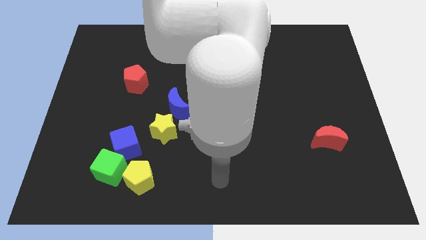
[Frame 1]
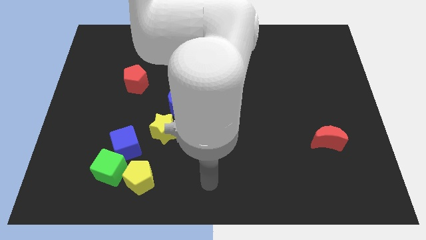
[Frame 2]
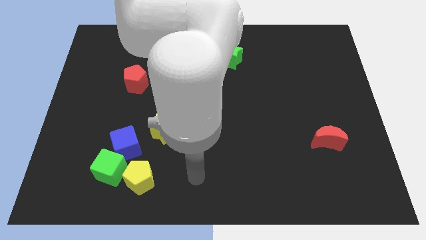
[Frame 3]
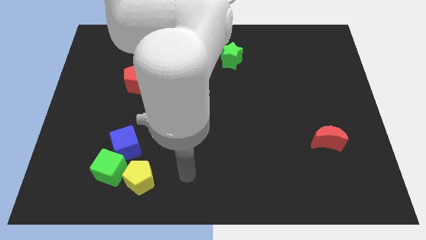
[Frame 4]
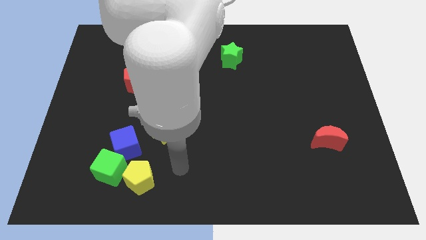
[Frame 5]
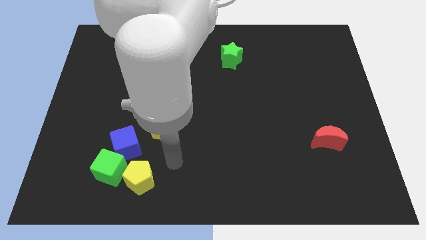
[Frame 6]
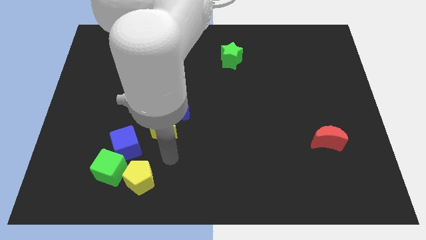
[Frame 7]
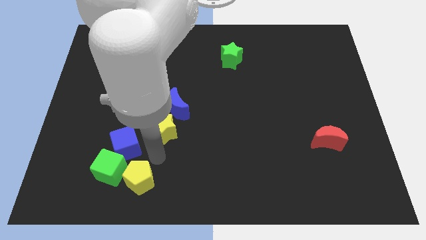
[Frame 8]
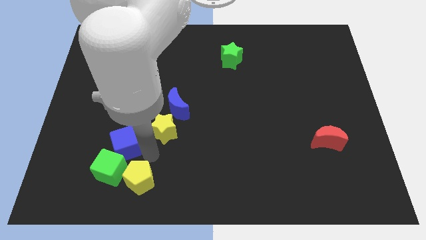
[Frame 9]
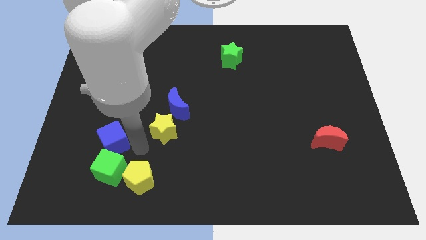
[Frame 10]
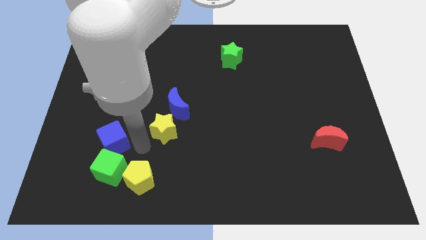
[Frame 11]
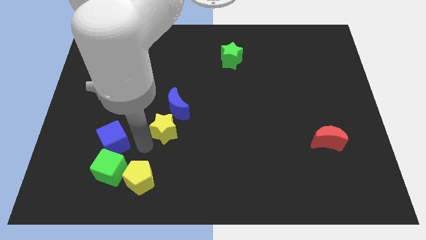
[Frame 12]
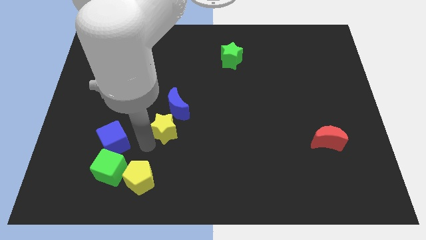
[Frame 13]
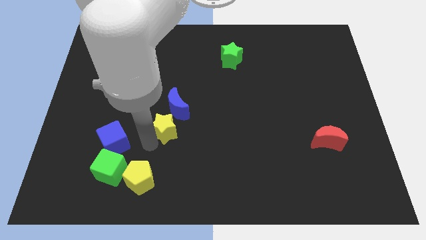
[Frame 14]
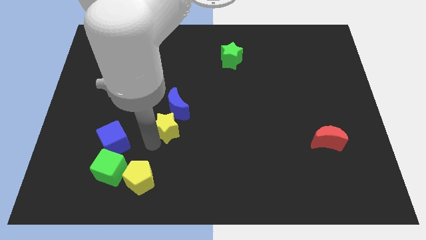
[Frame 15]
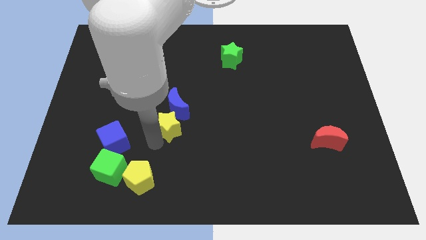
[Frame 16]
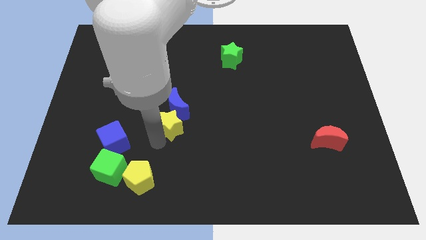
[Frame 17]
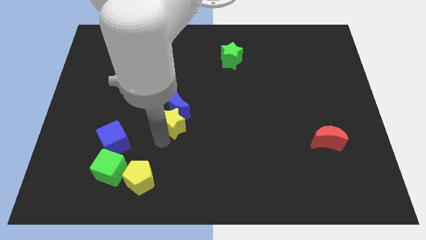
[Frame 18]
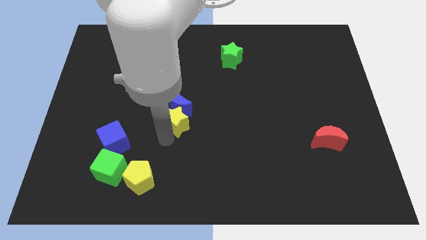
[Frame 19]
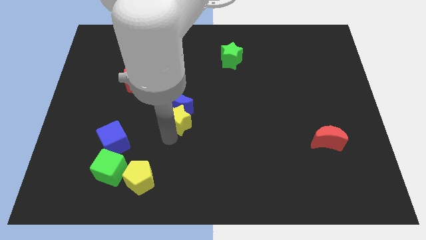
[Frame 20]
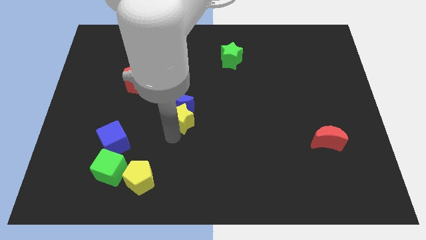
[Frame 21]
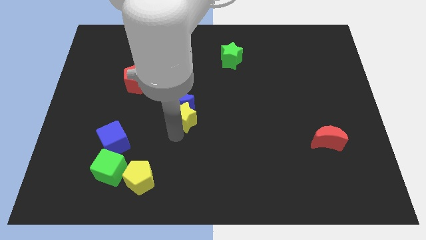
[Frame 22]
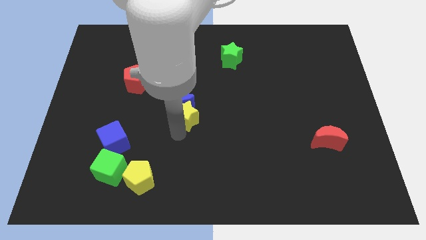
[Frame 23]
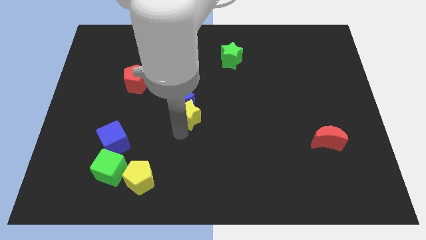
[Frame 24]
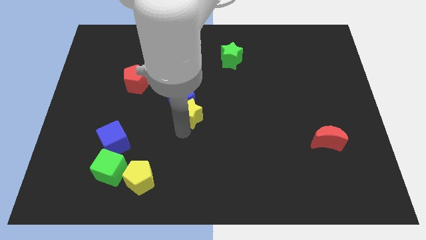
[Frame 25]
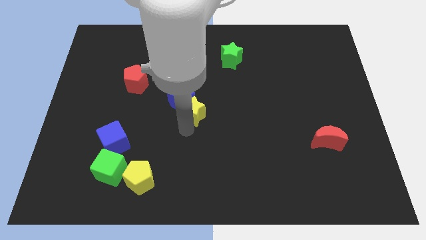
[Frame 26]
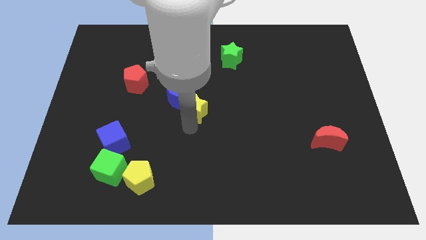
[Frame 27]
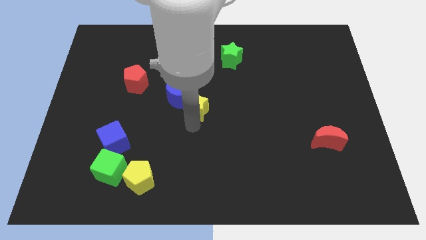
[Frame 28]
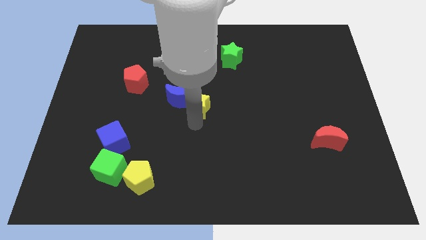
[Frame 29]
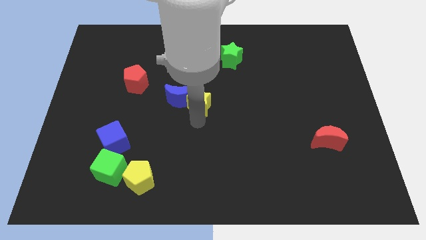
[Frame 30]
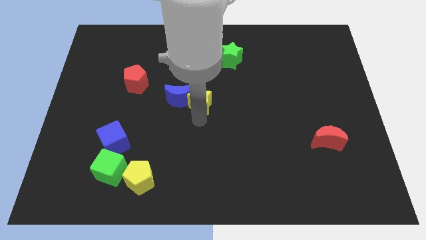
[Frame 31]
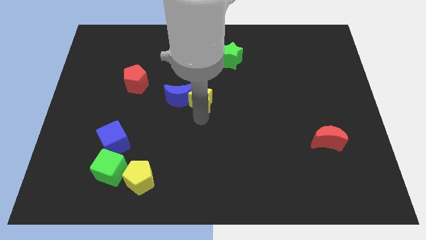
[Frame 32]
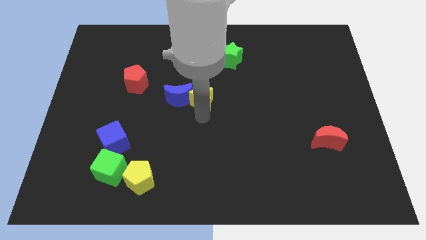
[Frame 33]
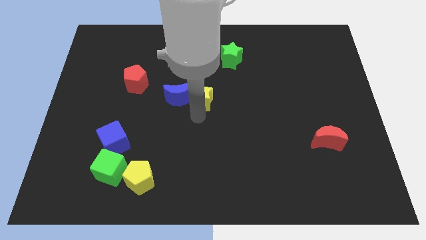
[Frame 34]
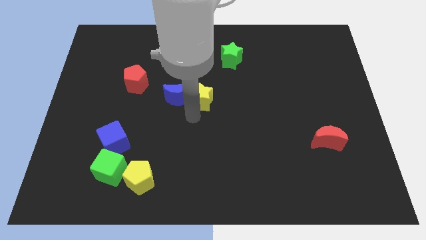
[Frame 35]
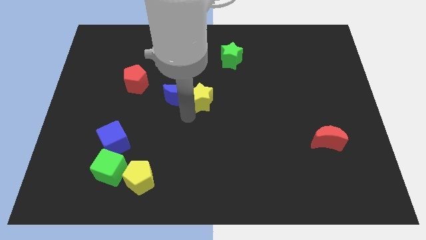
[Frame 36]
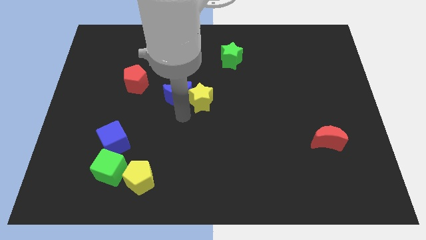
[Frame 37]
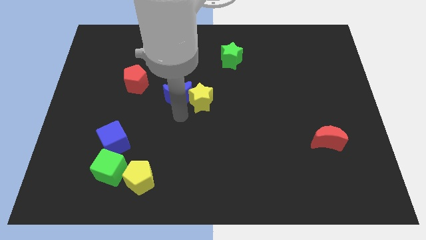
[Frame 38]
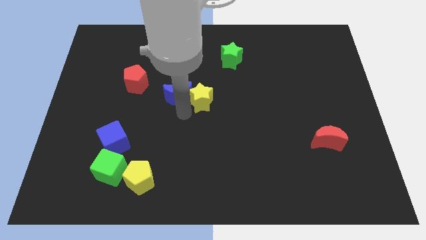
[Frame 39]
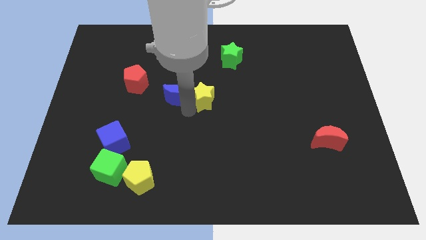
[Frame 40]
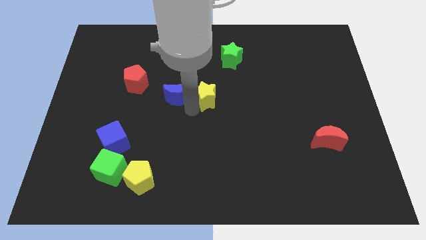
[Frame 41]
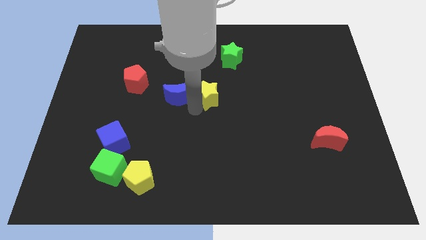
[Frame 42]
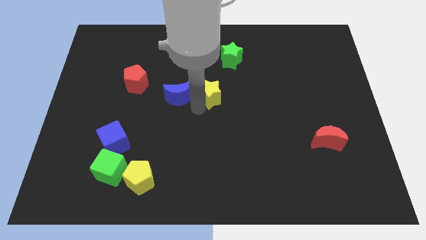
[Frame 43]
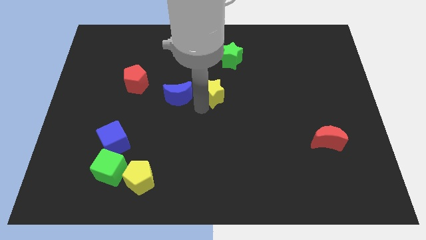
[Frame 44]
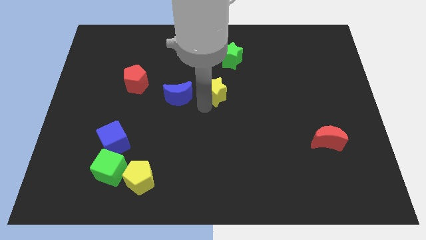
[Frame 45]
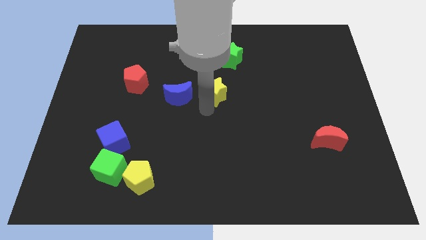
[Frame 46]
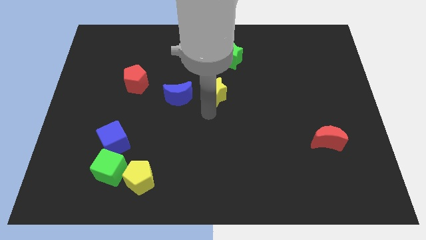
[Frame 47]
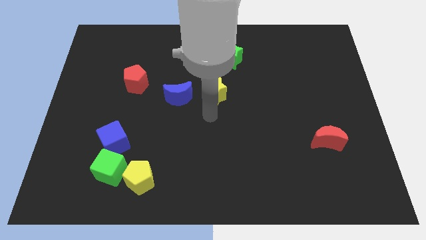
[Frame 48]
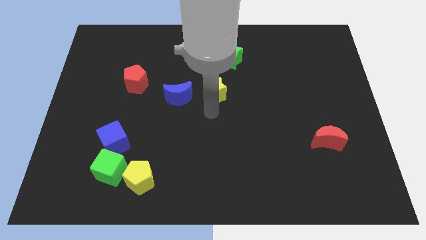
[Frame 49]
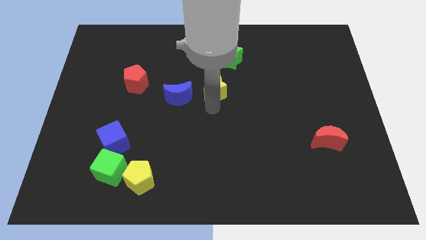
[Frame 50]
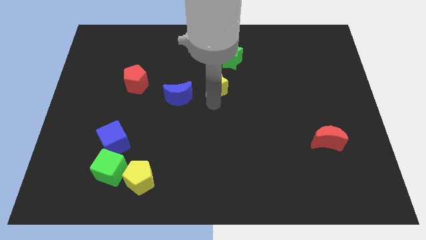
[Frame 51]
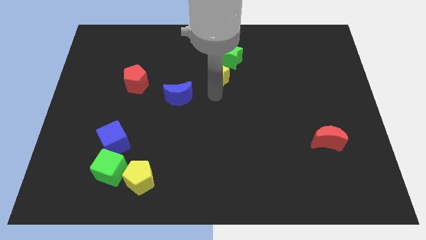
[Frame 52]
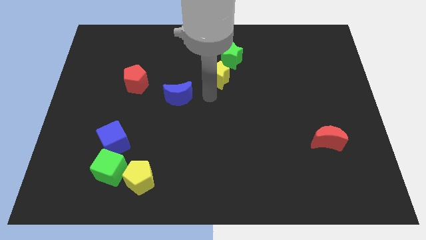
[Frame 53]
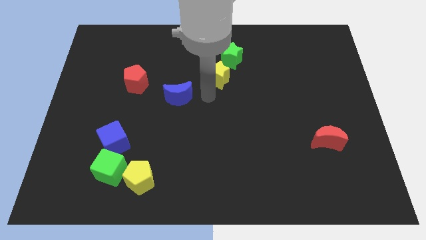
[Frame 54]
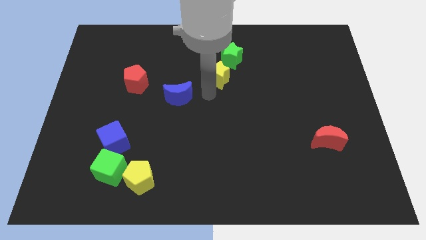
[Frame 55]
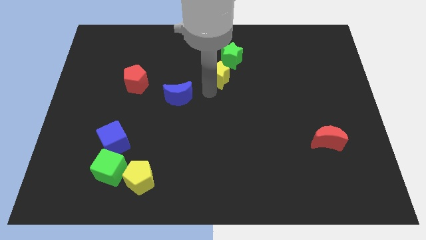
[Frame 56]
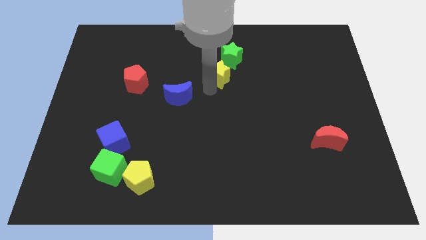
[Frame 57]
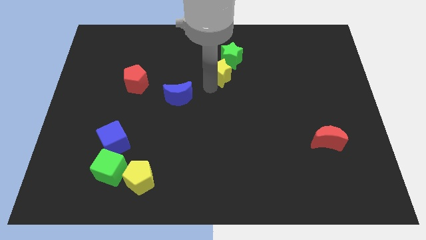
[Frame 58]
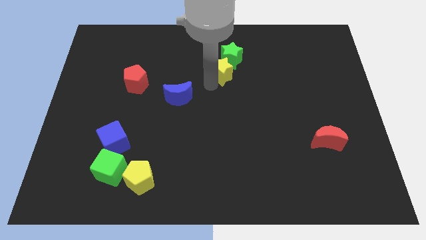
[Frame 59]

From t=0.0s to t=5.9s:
move the yellow star next to the green star

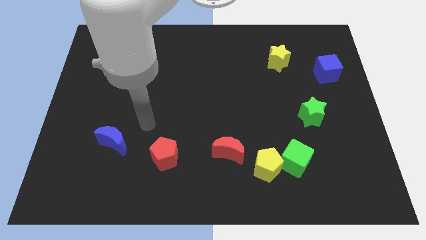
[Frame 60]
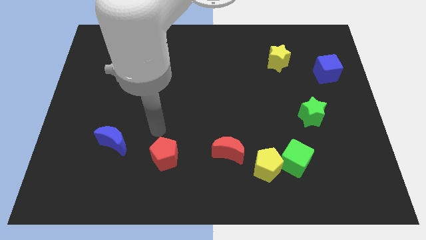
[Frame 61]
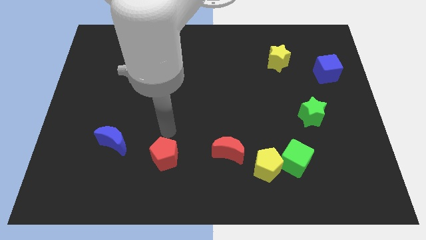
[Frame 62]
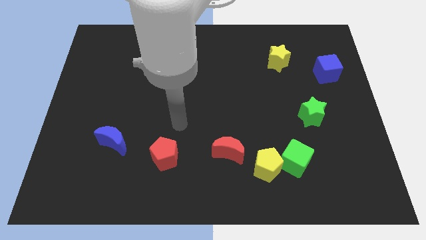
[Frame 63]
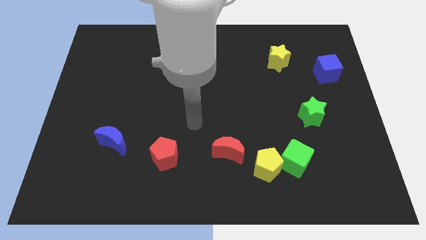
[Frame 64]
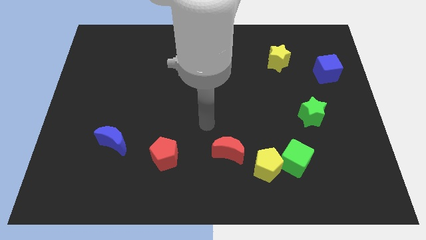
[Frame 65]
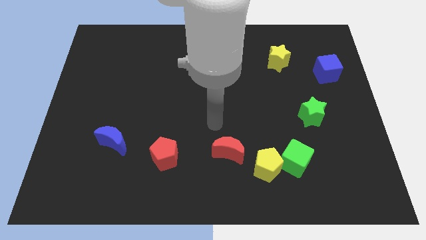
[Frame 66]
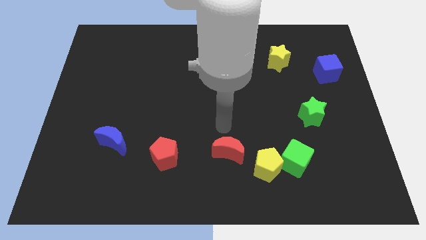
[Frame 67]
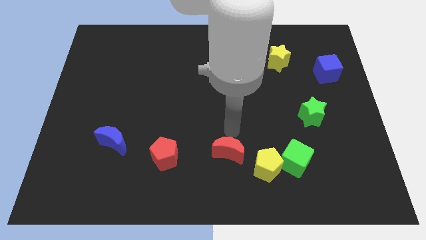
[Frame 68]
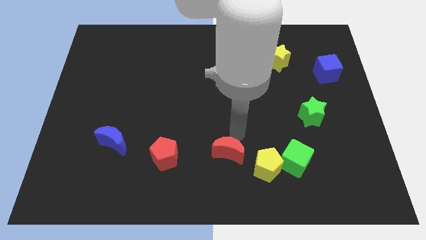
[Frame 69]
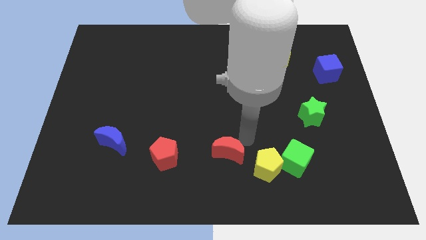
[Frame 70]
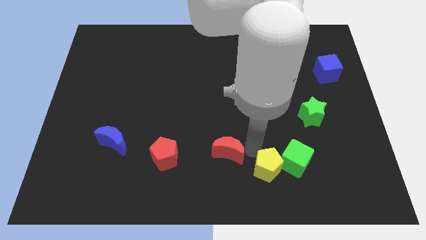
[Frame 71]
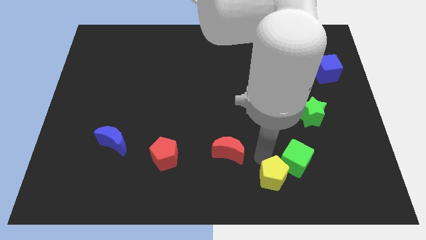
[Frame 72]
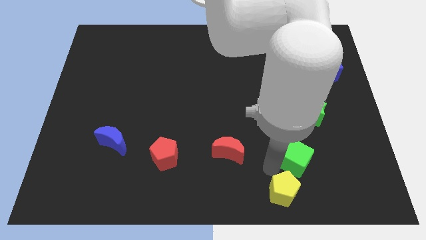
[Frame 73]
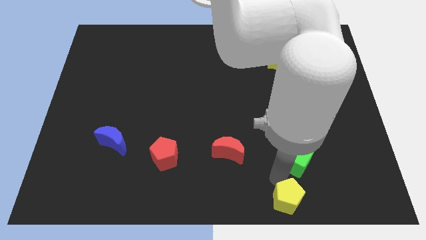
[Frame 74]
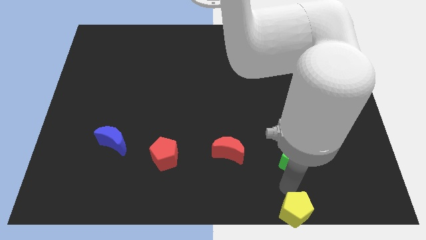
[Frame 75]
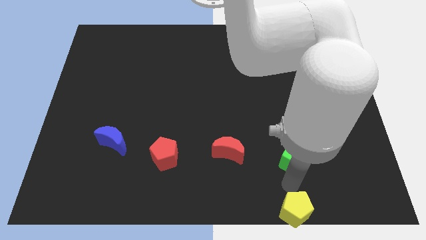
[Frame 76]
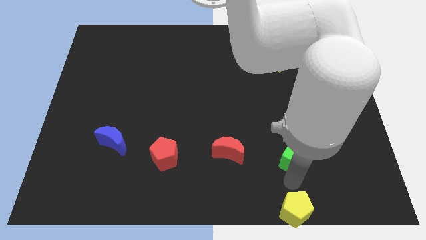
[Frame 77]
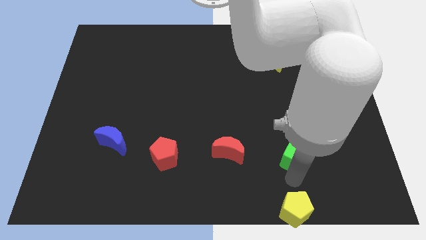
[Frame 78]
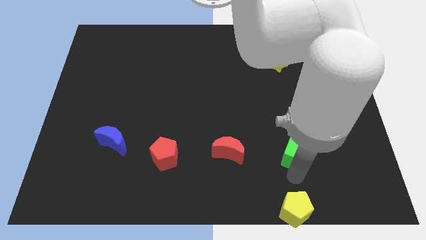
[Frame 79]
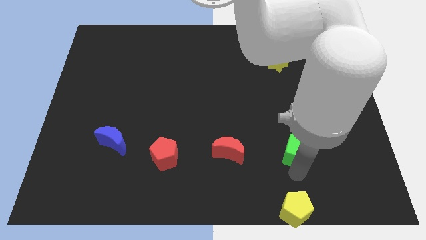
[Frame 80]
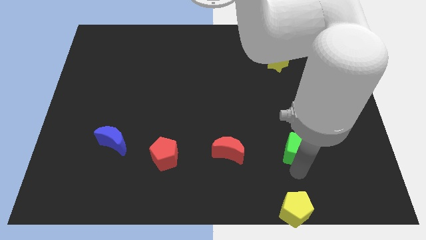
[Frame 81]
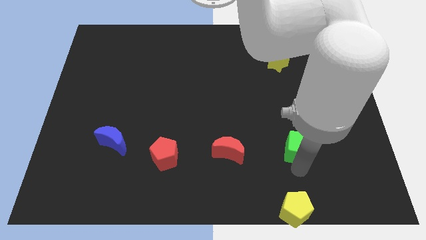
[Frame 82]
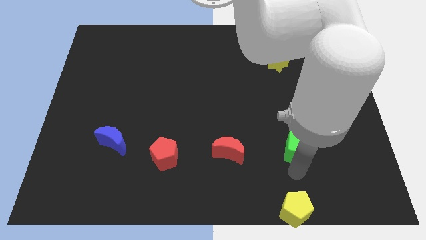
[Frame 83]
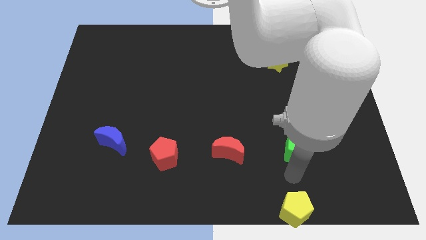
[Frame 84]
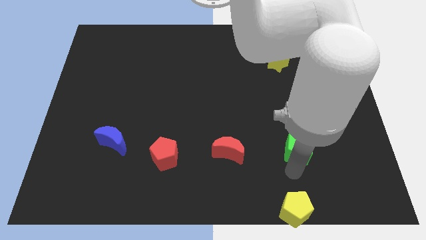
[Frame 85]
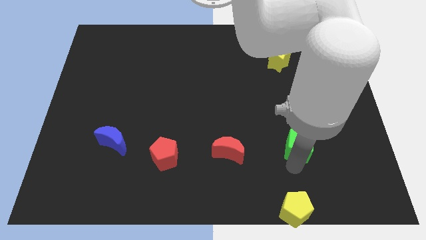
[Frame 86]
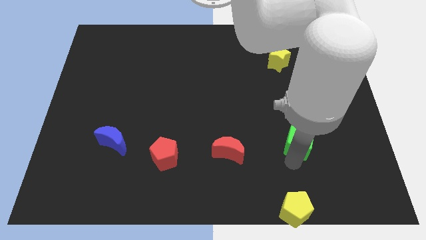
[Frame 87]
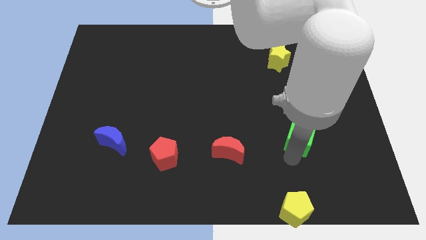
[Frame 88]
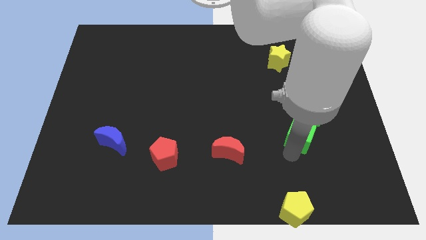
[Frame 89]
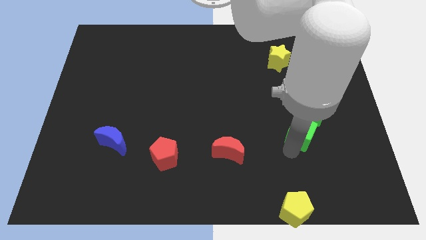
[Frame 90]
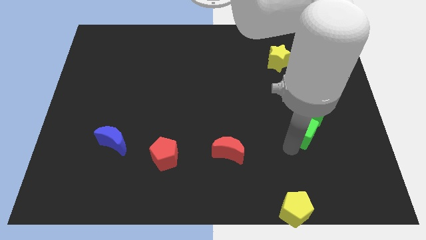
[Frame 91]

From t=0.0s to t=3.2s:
slide the green cube next to the green star
